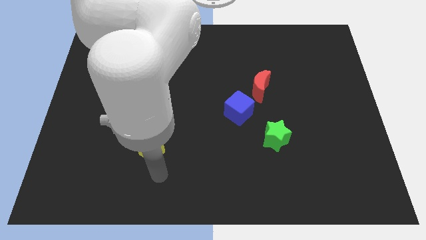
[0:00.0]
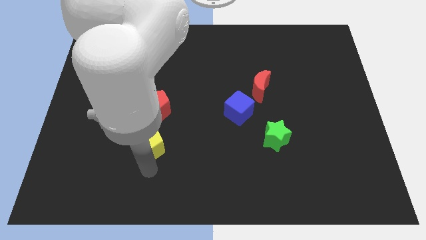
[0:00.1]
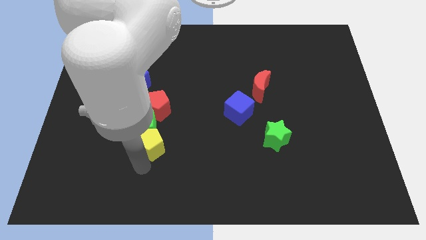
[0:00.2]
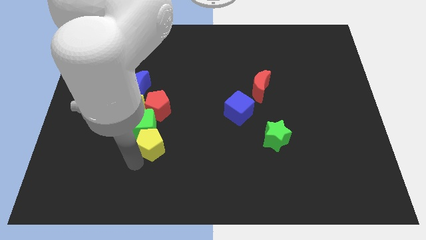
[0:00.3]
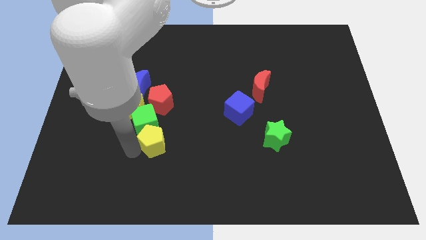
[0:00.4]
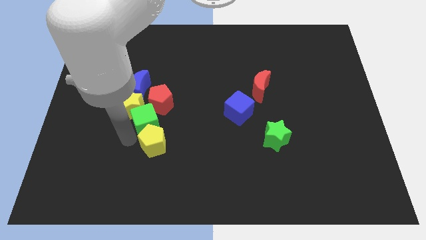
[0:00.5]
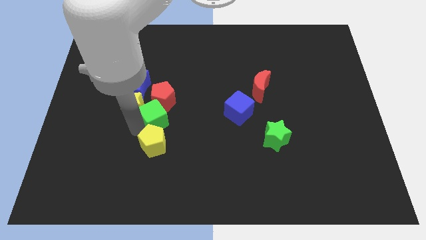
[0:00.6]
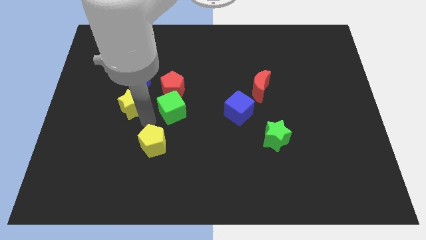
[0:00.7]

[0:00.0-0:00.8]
pull the yellow pentagon apart from the green cube

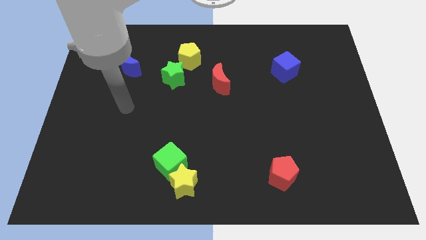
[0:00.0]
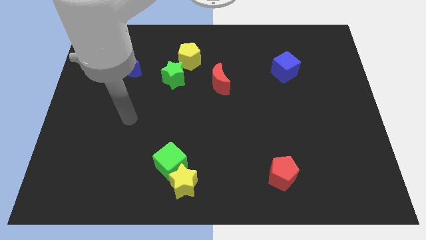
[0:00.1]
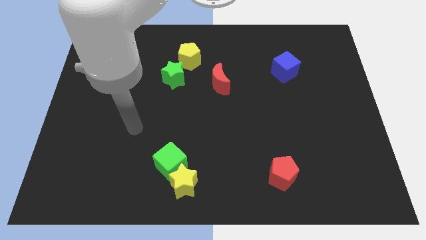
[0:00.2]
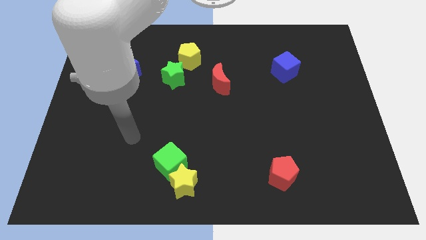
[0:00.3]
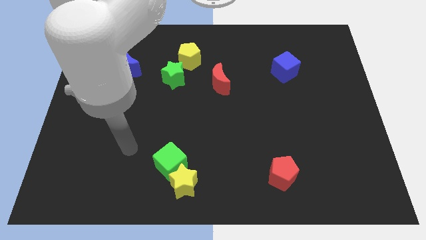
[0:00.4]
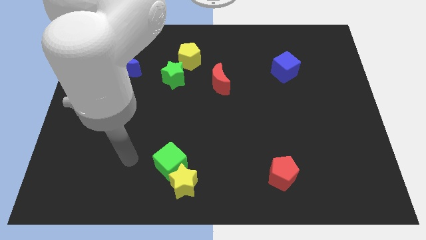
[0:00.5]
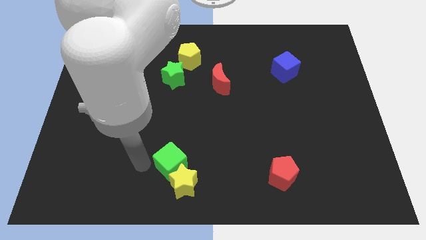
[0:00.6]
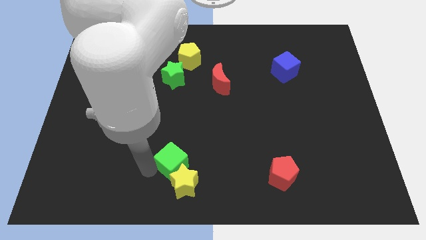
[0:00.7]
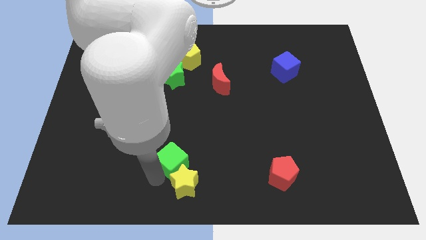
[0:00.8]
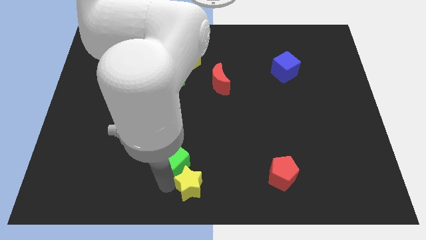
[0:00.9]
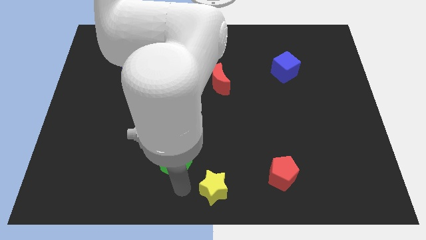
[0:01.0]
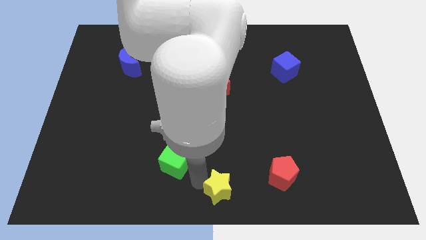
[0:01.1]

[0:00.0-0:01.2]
pull the green cube apart from the yellow star

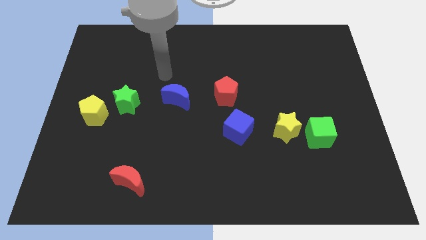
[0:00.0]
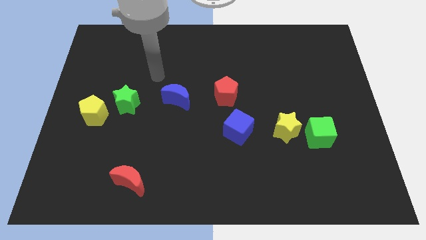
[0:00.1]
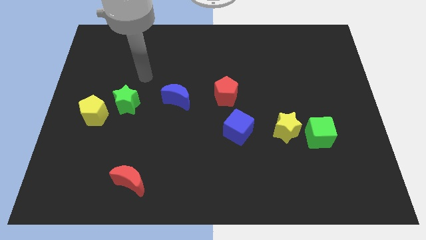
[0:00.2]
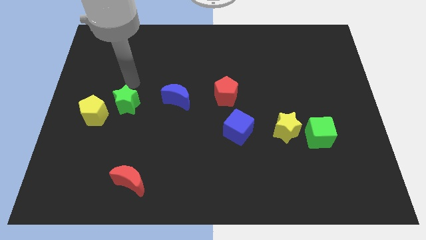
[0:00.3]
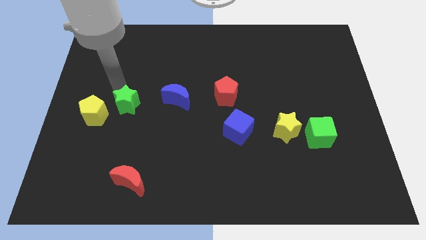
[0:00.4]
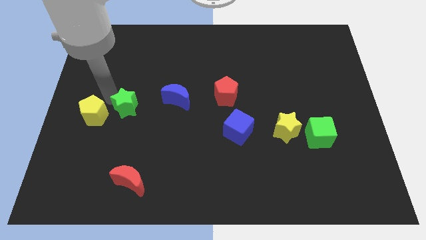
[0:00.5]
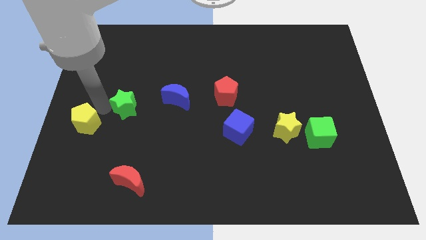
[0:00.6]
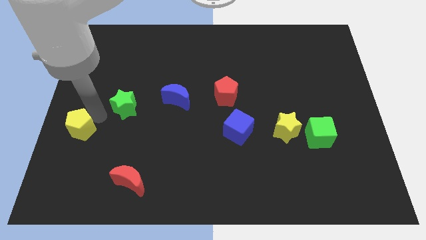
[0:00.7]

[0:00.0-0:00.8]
pull the green star apart from the yellow pentagon

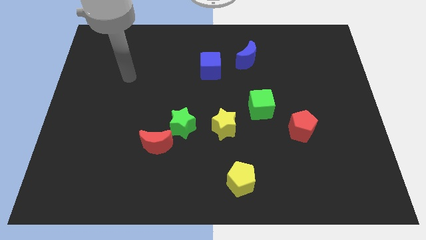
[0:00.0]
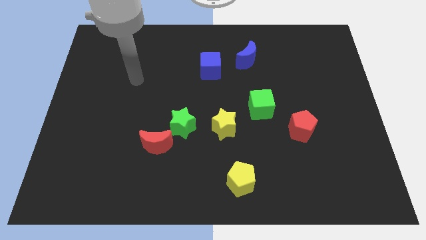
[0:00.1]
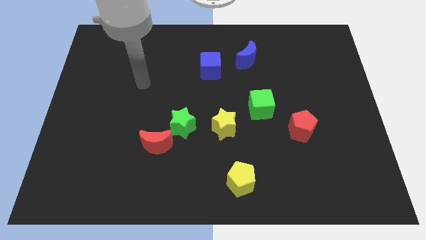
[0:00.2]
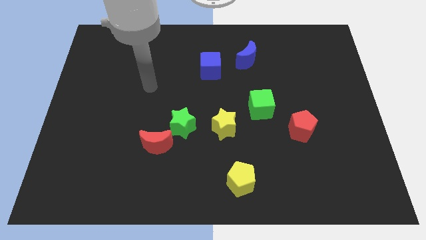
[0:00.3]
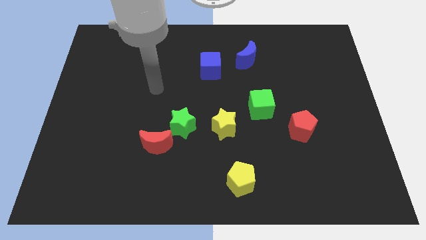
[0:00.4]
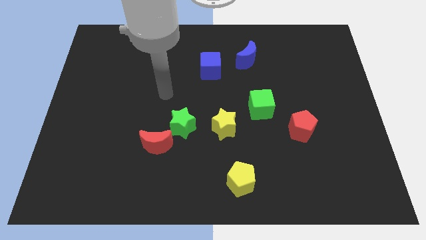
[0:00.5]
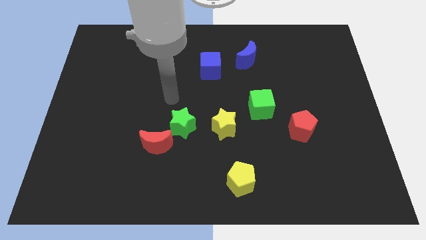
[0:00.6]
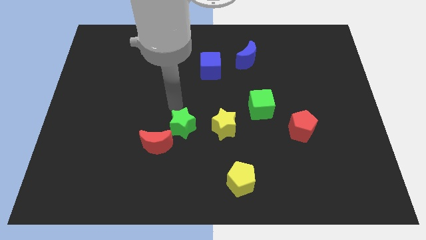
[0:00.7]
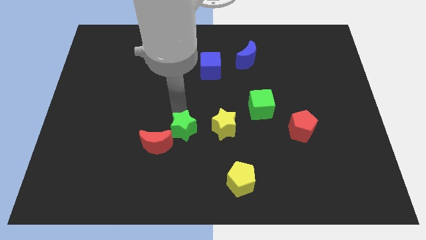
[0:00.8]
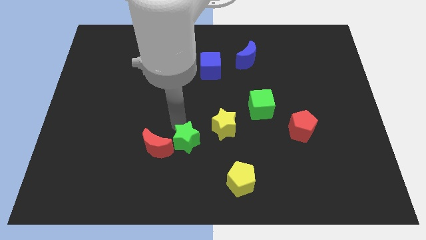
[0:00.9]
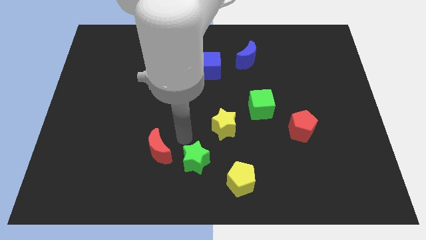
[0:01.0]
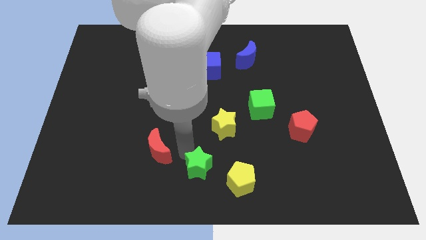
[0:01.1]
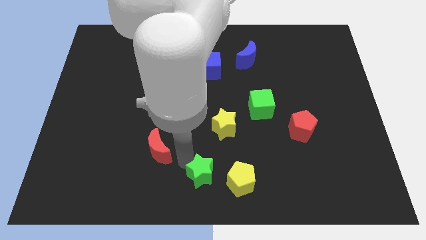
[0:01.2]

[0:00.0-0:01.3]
move the red moon away from the green star

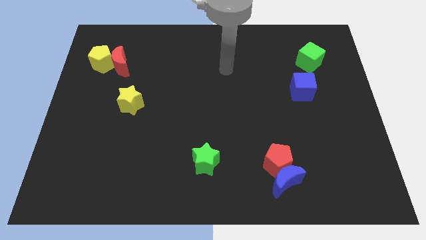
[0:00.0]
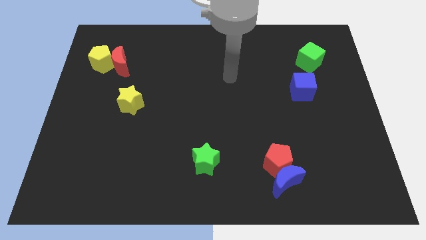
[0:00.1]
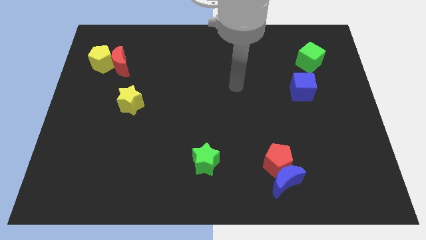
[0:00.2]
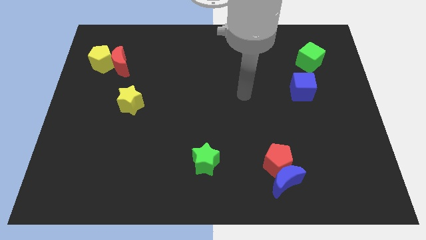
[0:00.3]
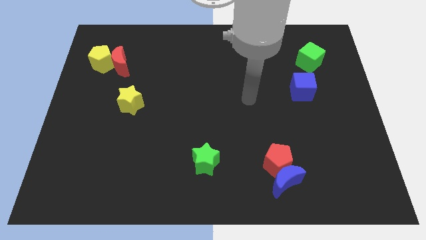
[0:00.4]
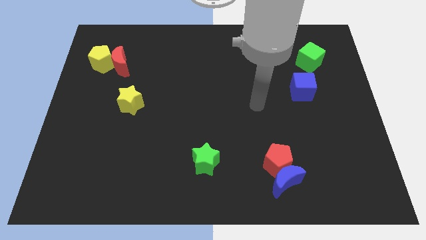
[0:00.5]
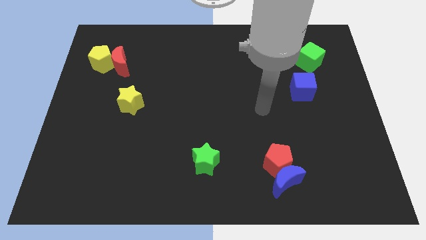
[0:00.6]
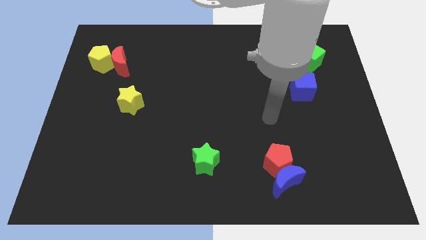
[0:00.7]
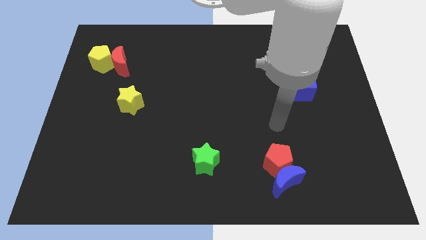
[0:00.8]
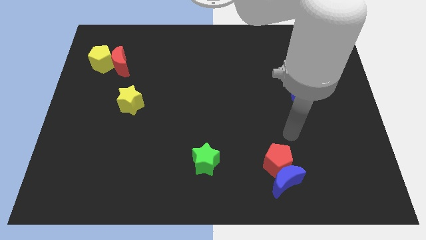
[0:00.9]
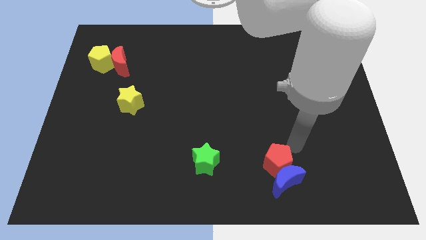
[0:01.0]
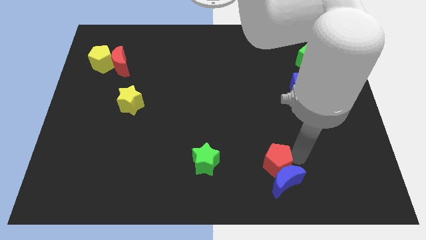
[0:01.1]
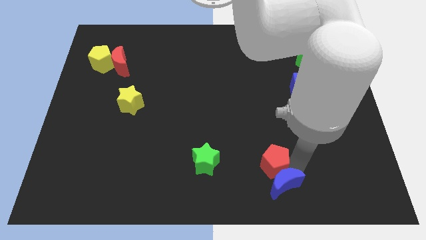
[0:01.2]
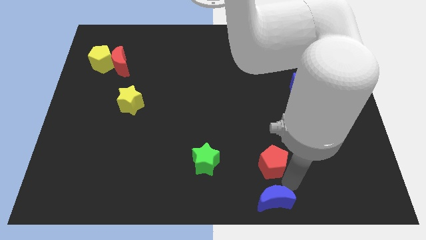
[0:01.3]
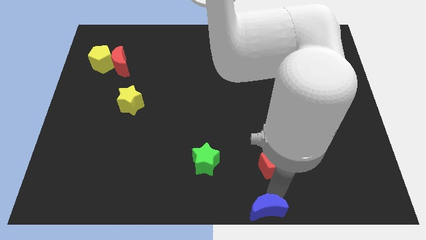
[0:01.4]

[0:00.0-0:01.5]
move the red pentagon away from the blue moon

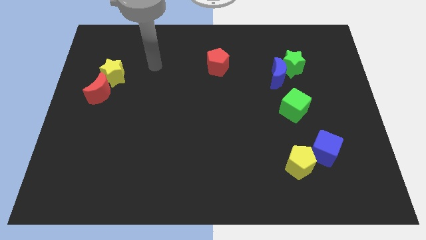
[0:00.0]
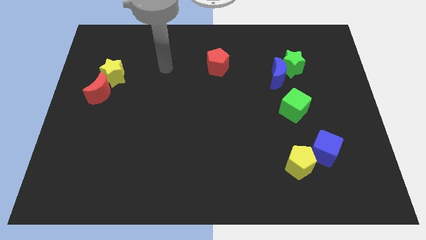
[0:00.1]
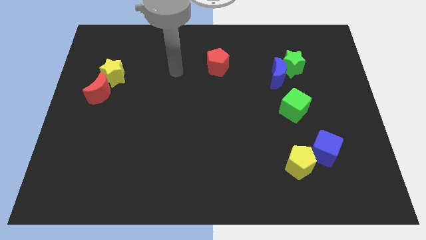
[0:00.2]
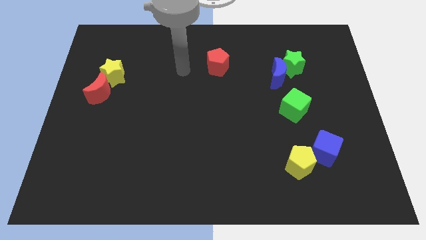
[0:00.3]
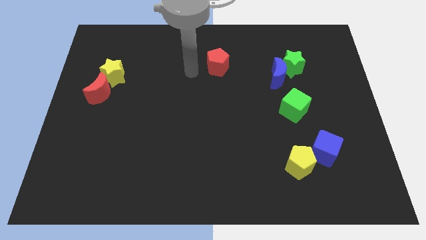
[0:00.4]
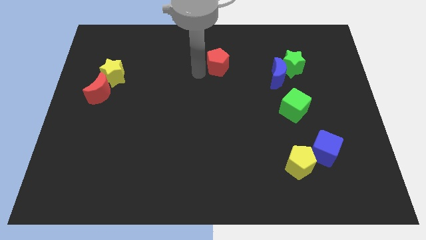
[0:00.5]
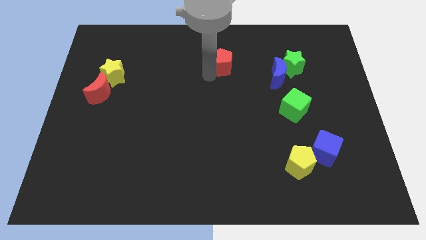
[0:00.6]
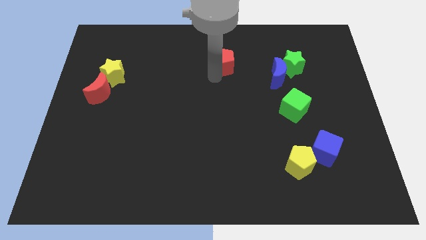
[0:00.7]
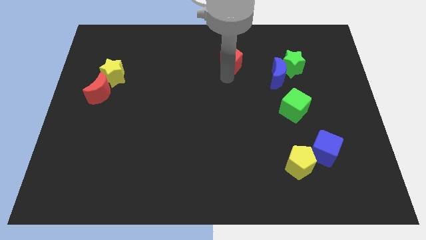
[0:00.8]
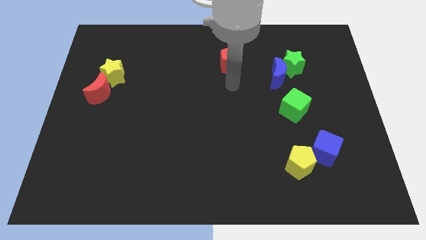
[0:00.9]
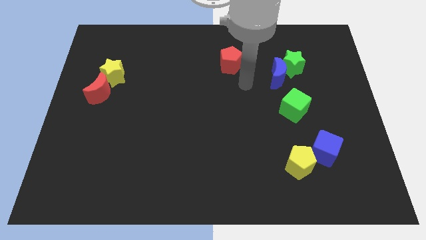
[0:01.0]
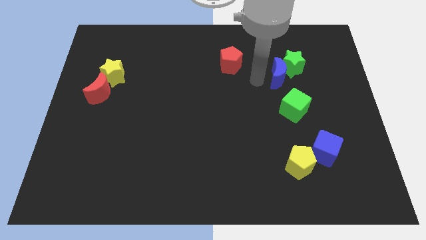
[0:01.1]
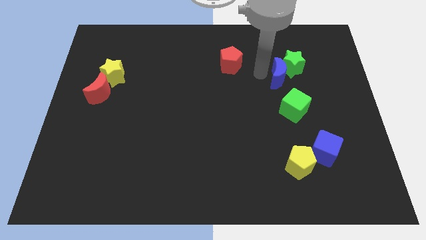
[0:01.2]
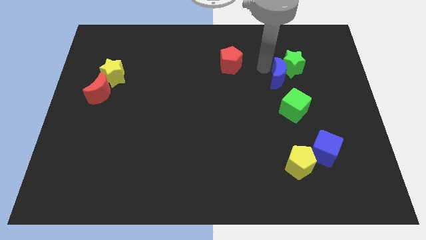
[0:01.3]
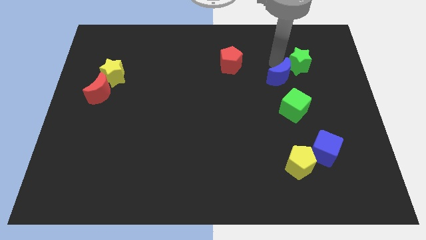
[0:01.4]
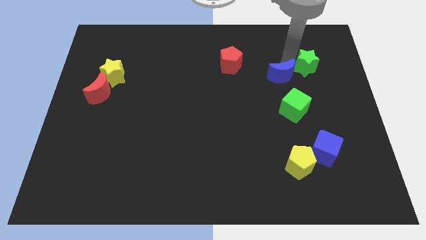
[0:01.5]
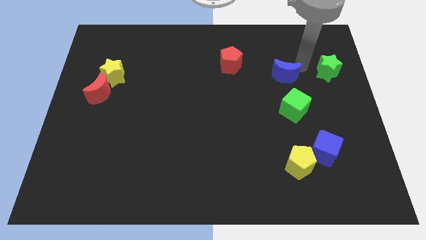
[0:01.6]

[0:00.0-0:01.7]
pull the blue moon apart from the green star

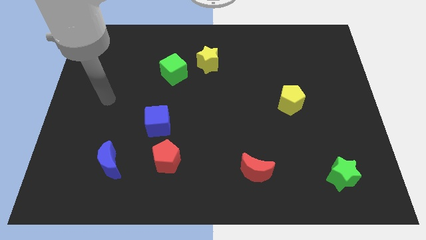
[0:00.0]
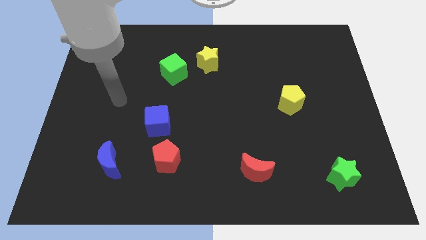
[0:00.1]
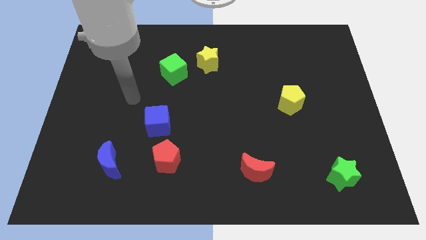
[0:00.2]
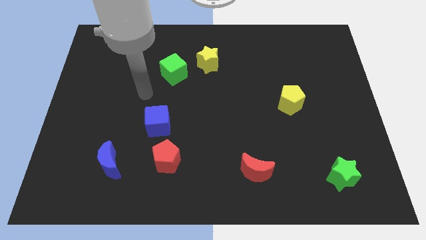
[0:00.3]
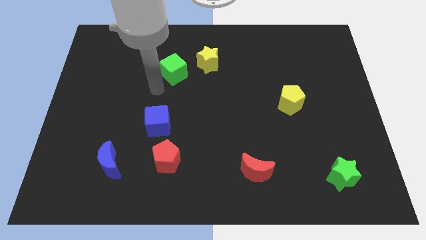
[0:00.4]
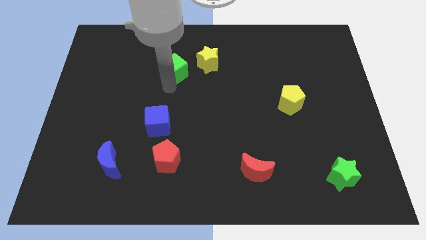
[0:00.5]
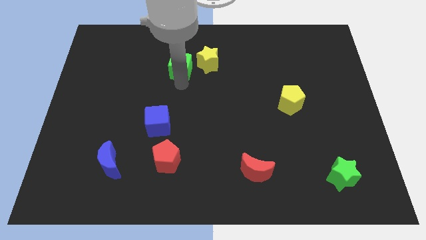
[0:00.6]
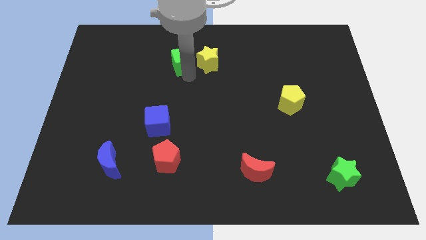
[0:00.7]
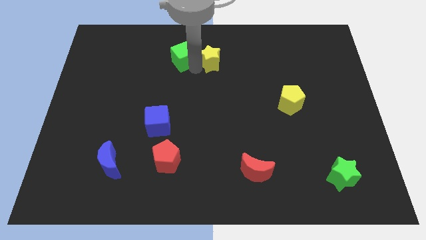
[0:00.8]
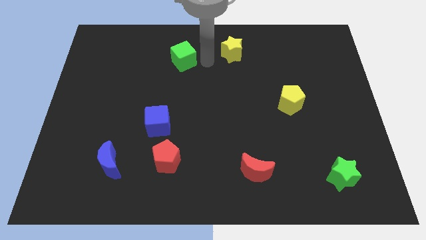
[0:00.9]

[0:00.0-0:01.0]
move the green cube away from the yellow star

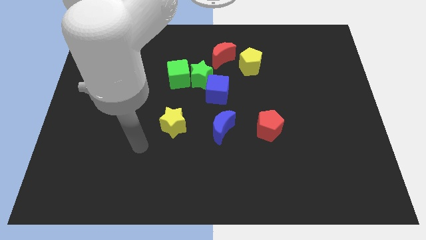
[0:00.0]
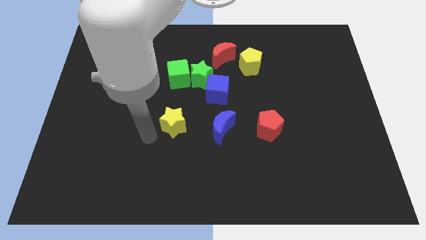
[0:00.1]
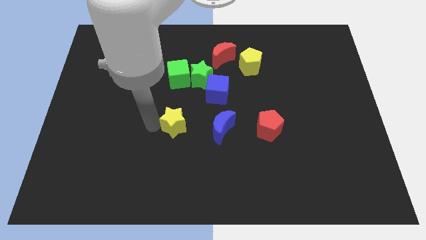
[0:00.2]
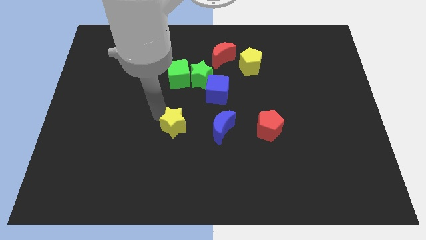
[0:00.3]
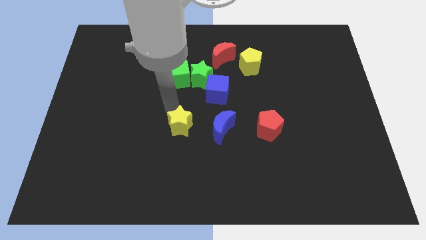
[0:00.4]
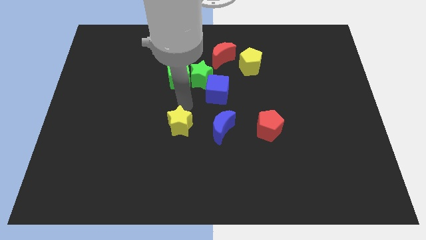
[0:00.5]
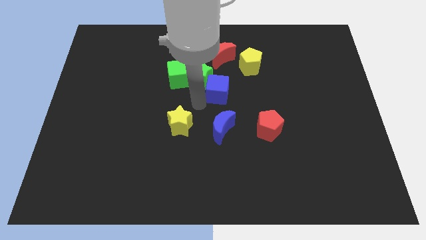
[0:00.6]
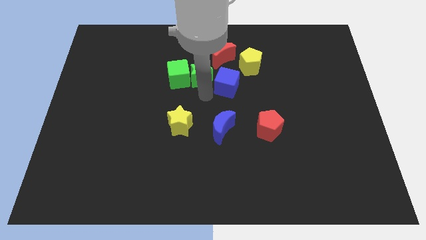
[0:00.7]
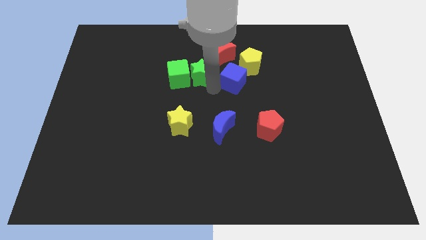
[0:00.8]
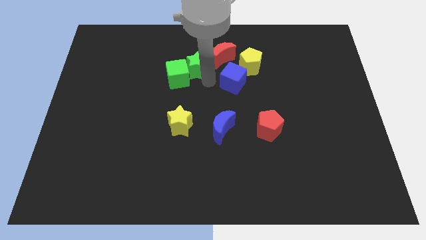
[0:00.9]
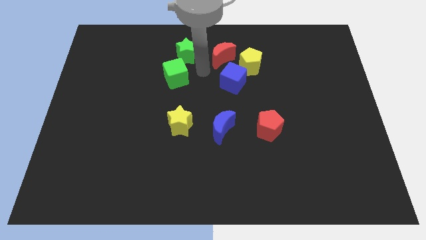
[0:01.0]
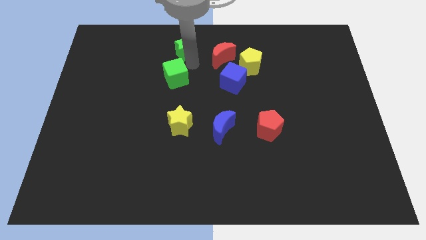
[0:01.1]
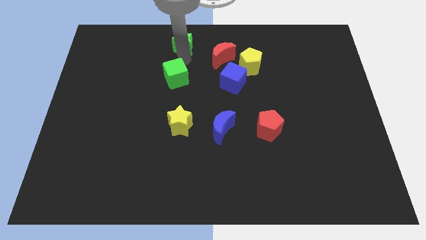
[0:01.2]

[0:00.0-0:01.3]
separate the green cube from the green star
